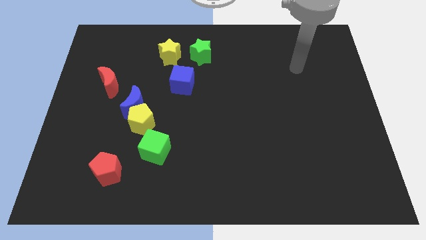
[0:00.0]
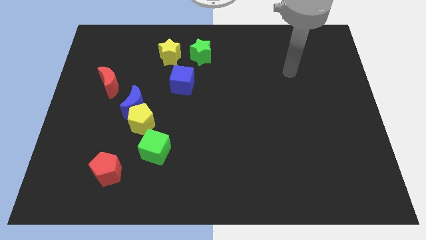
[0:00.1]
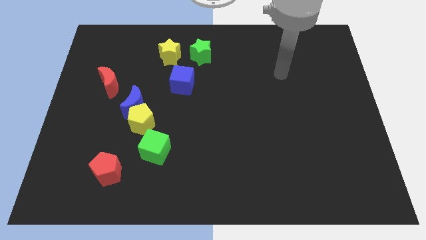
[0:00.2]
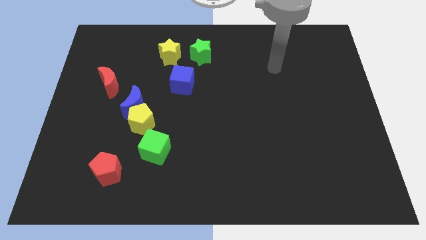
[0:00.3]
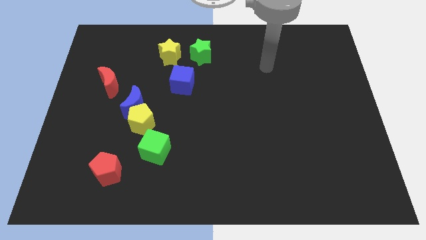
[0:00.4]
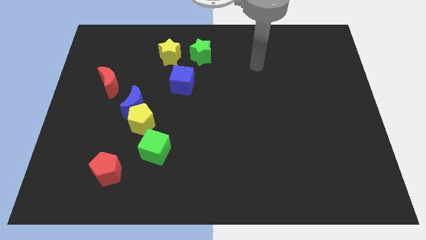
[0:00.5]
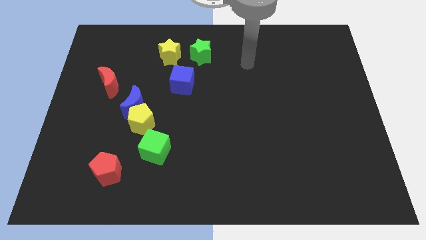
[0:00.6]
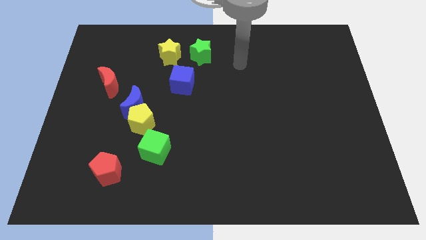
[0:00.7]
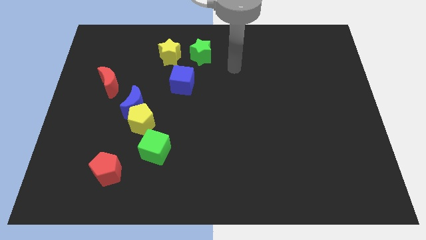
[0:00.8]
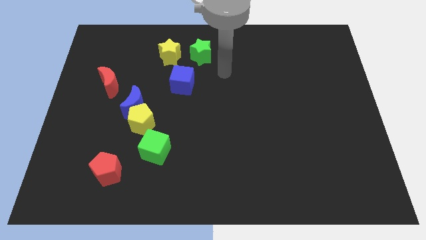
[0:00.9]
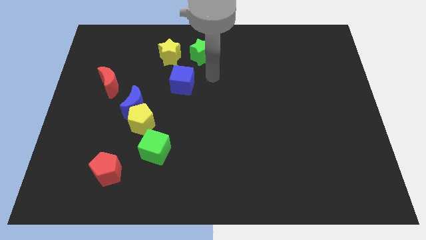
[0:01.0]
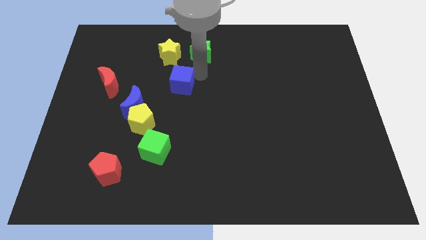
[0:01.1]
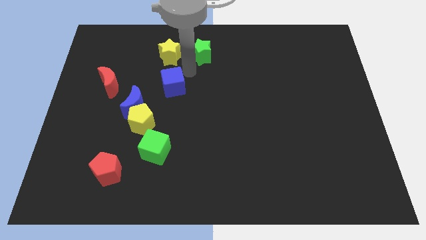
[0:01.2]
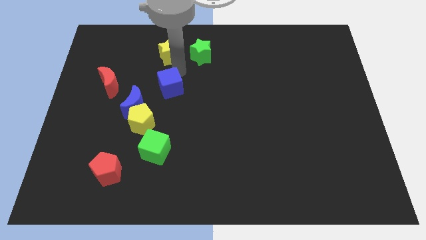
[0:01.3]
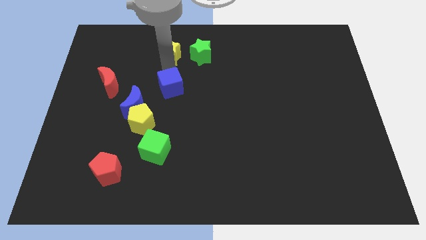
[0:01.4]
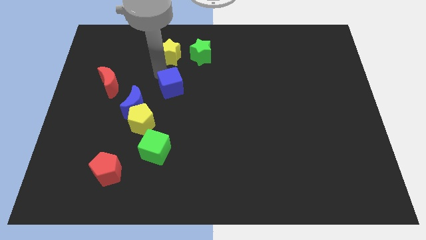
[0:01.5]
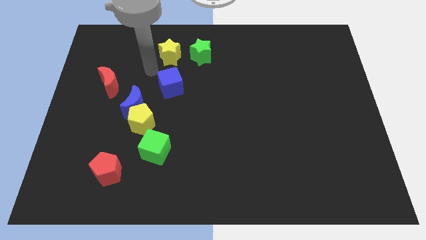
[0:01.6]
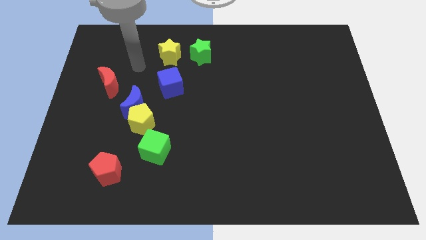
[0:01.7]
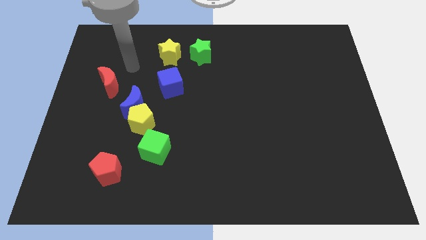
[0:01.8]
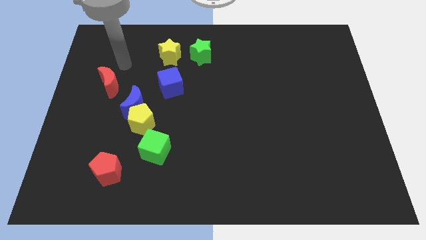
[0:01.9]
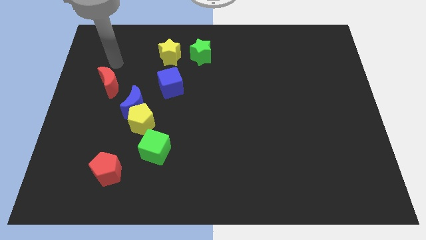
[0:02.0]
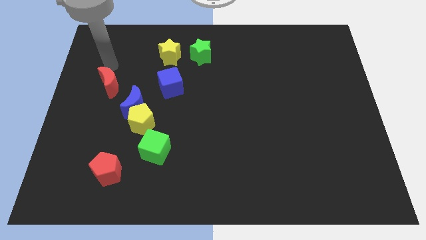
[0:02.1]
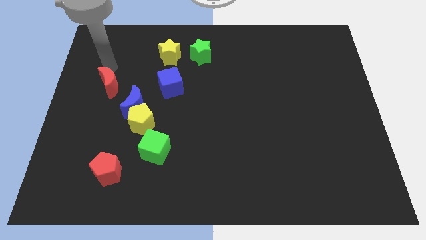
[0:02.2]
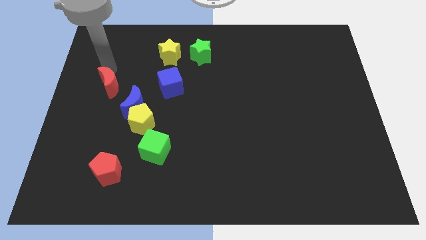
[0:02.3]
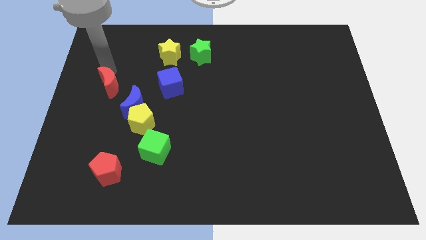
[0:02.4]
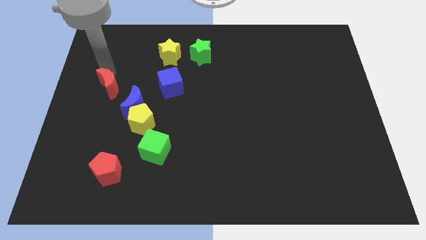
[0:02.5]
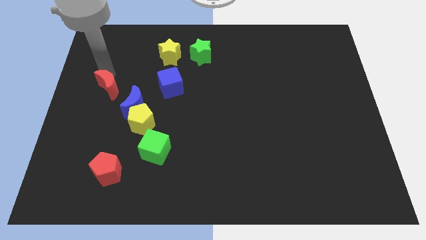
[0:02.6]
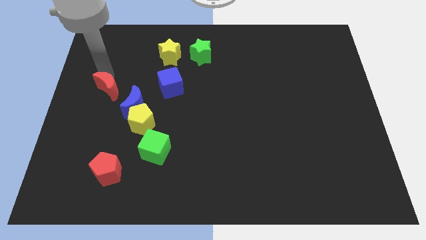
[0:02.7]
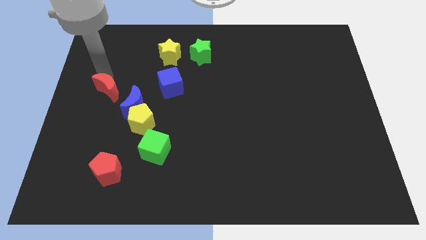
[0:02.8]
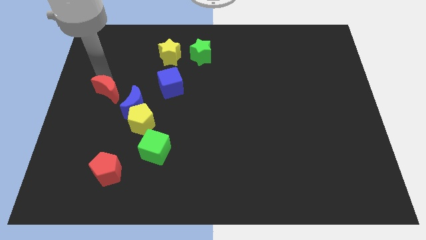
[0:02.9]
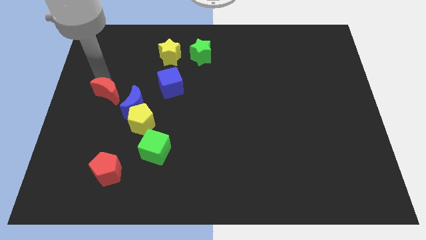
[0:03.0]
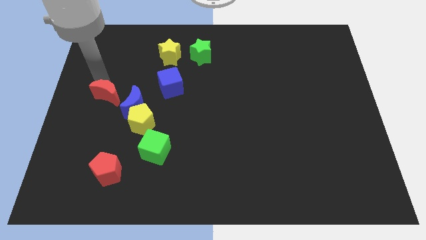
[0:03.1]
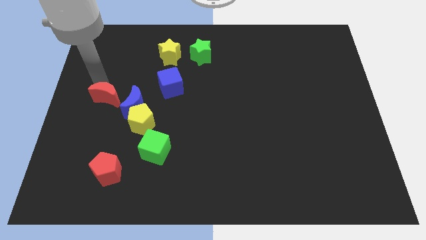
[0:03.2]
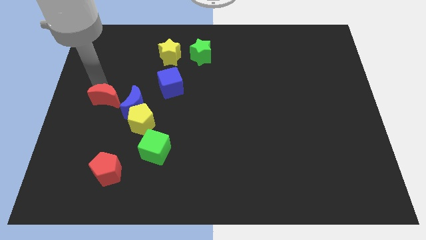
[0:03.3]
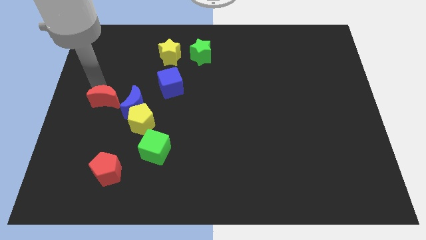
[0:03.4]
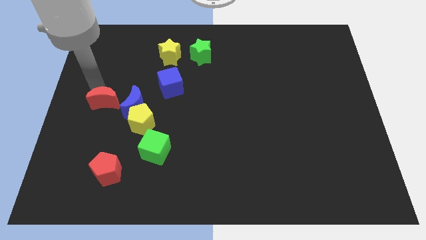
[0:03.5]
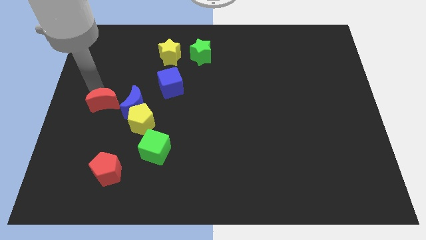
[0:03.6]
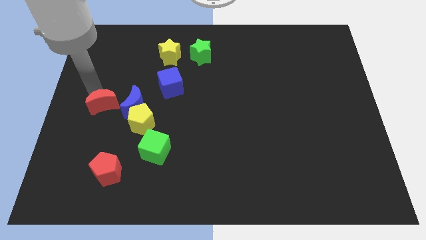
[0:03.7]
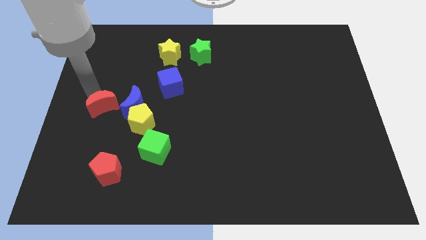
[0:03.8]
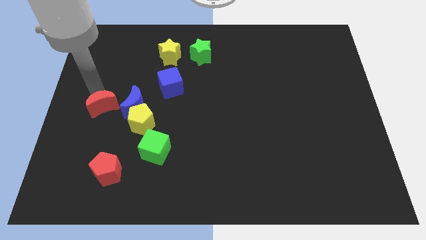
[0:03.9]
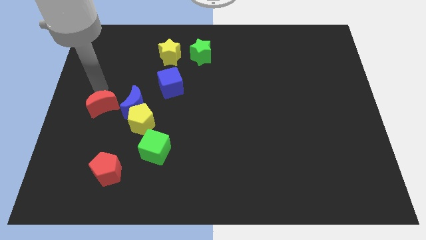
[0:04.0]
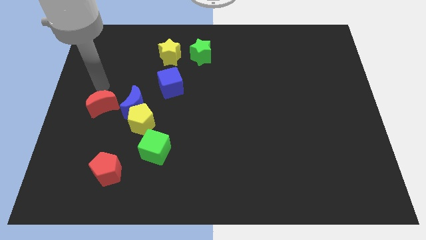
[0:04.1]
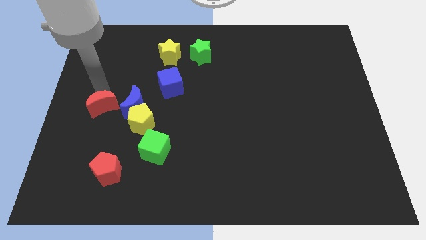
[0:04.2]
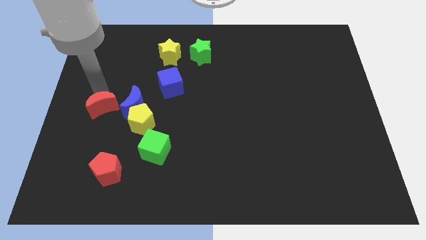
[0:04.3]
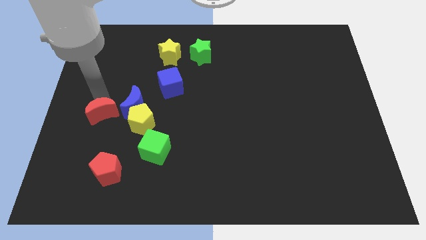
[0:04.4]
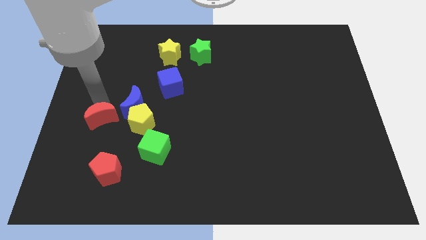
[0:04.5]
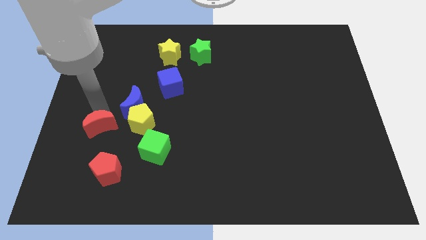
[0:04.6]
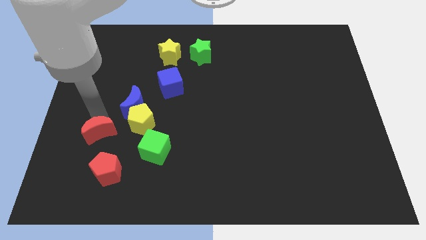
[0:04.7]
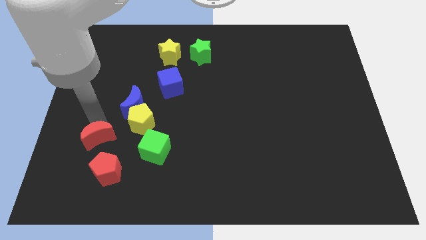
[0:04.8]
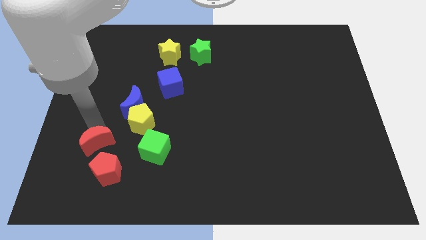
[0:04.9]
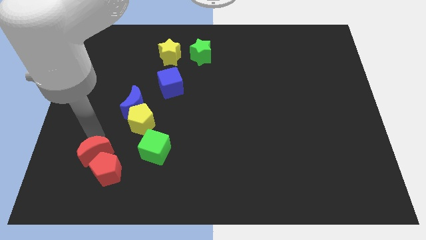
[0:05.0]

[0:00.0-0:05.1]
slide the red moon close to the red pentagon

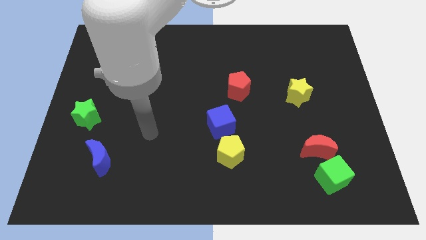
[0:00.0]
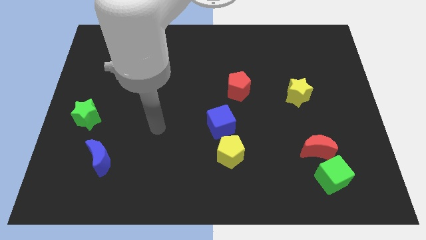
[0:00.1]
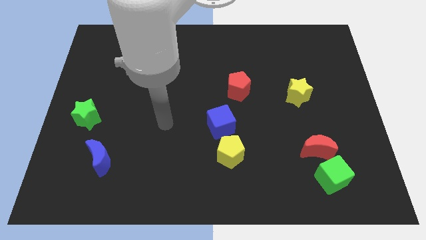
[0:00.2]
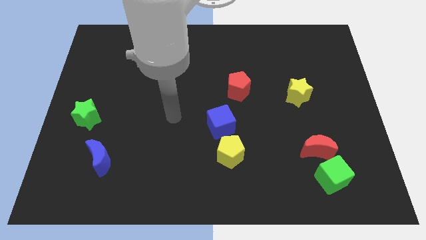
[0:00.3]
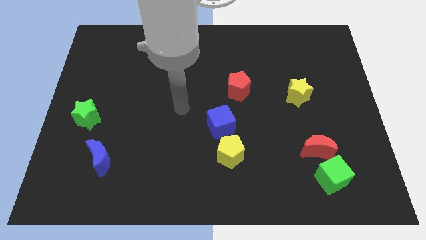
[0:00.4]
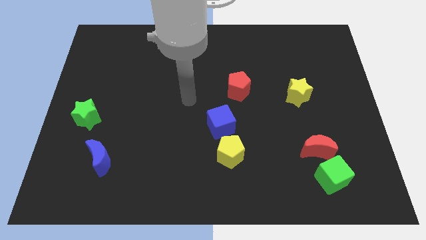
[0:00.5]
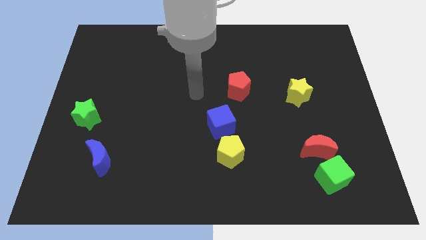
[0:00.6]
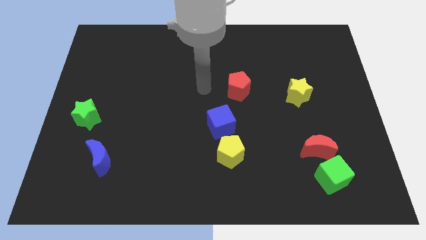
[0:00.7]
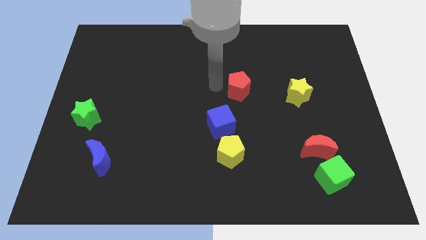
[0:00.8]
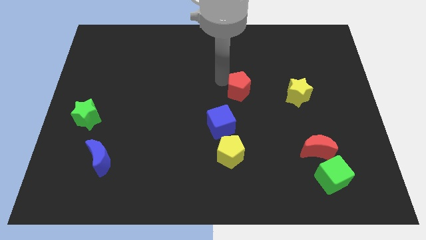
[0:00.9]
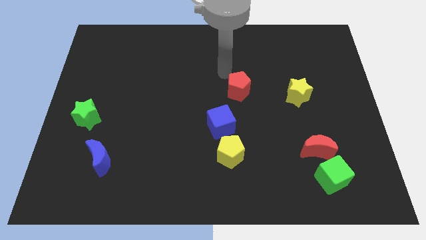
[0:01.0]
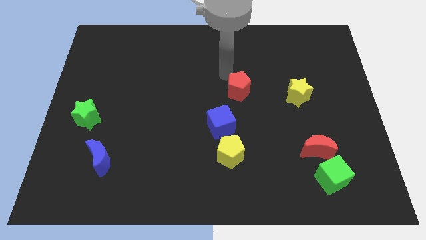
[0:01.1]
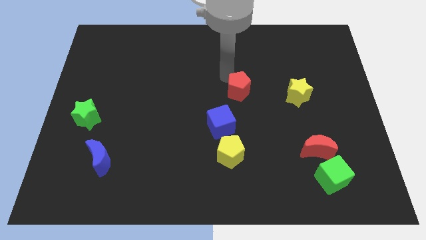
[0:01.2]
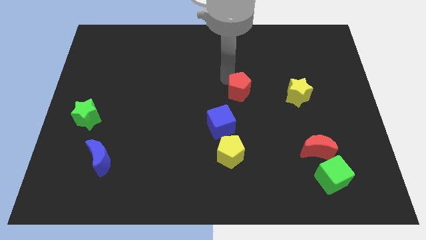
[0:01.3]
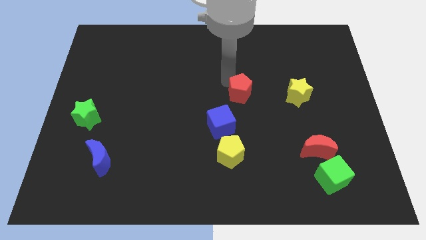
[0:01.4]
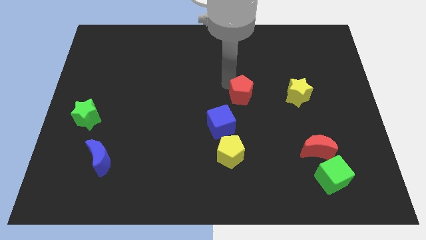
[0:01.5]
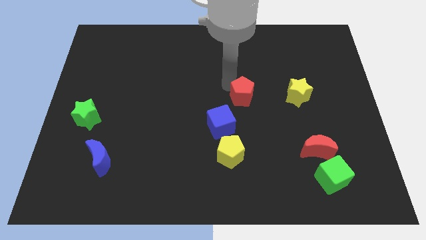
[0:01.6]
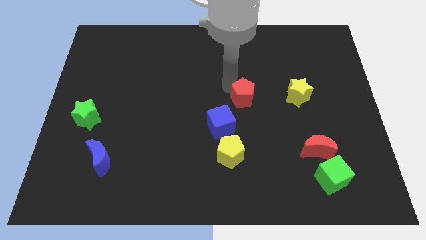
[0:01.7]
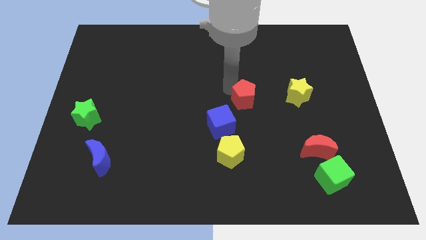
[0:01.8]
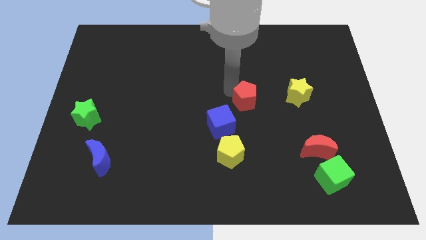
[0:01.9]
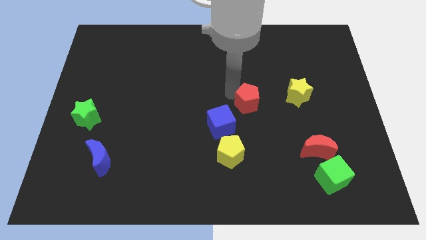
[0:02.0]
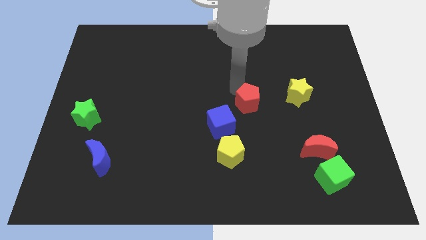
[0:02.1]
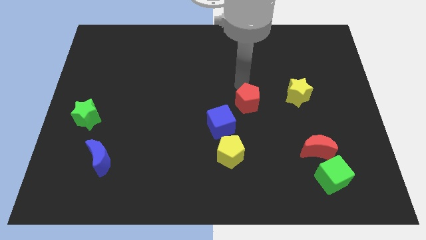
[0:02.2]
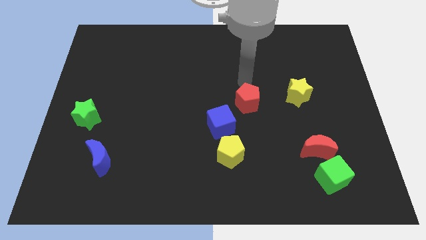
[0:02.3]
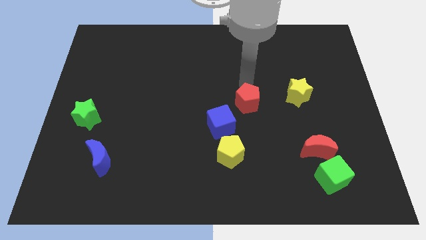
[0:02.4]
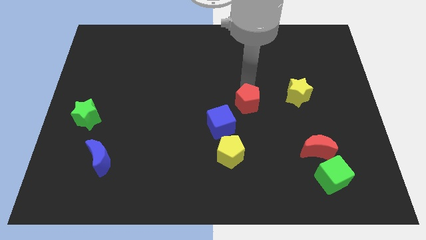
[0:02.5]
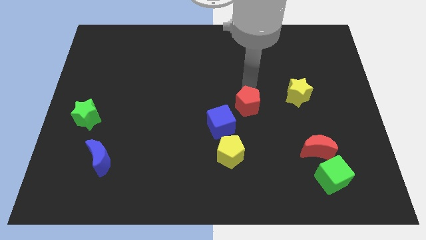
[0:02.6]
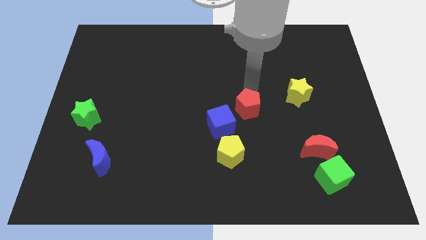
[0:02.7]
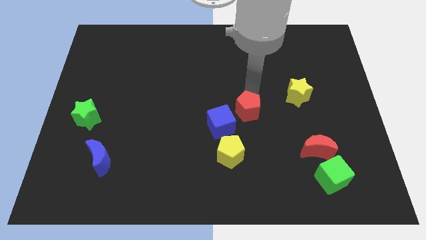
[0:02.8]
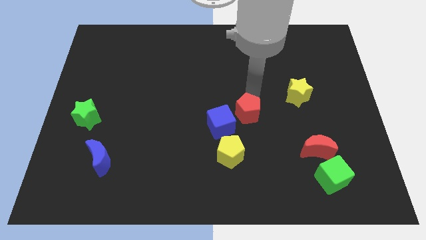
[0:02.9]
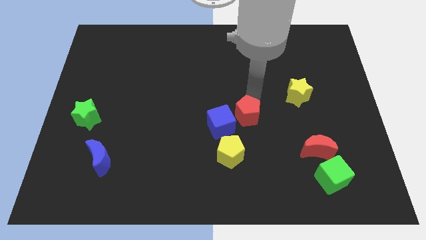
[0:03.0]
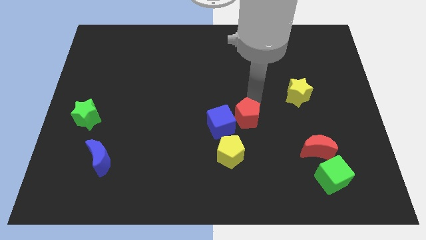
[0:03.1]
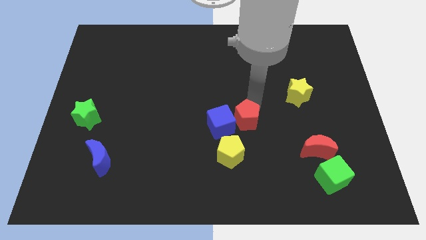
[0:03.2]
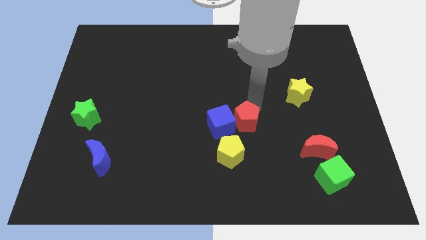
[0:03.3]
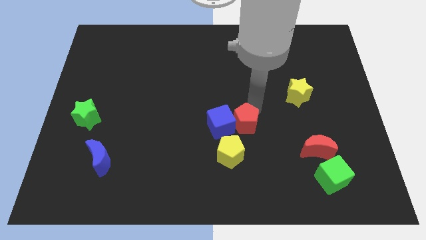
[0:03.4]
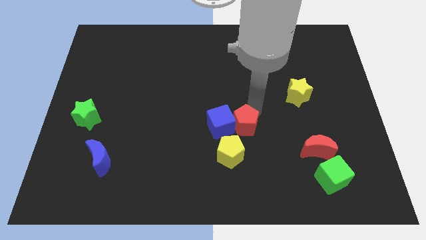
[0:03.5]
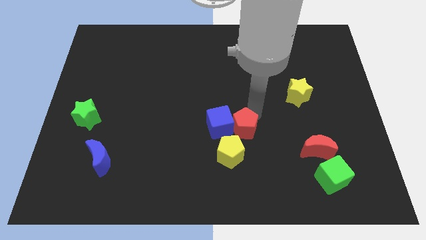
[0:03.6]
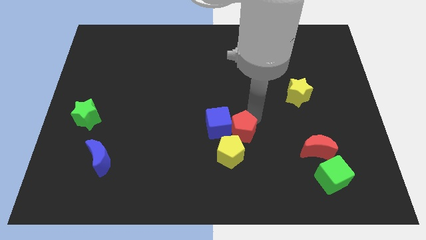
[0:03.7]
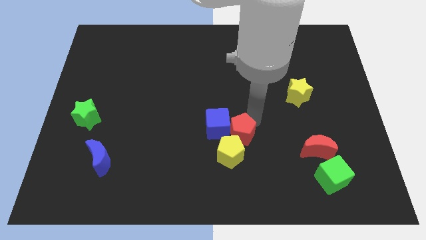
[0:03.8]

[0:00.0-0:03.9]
push the red pentagon to the yellow pentagon
